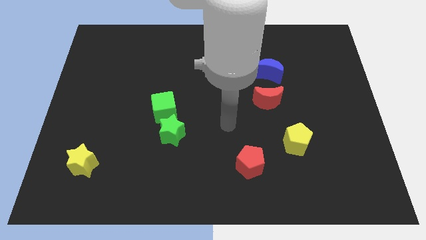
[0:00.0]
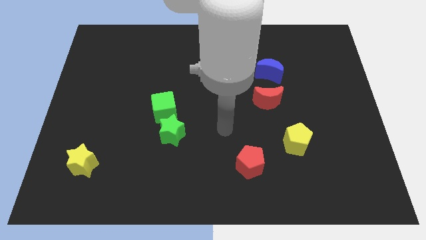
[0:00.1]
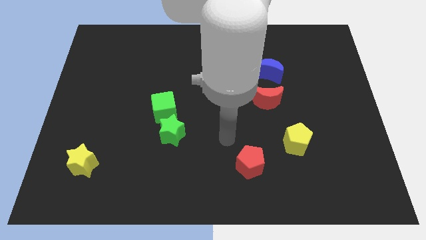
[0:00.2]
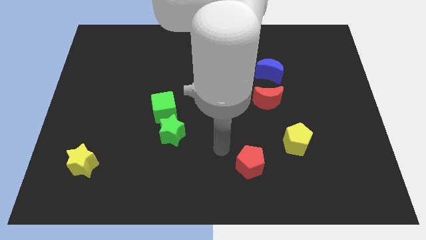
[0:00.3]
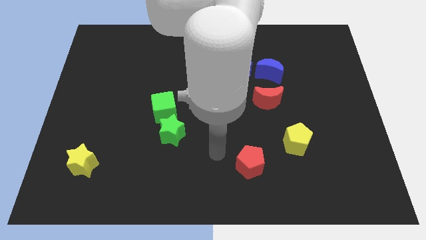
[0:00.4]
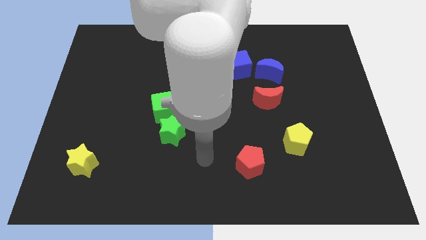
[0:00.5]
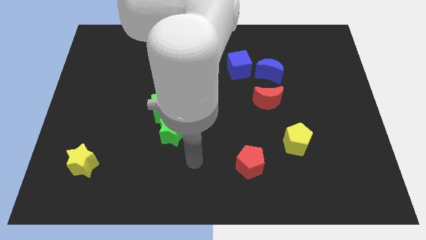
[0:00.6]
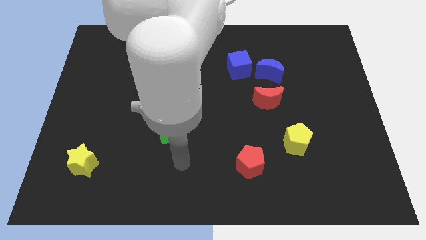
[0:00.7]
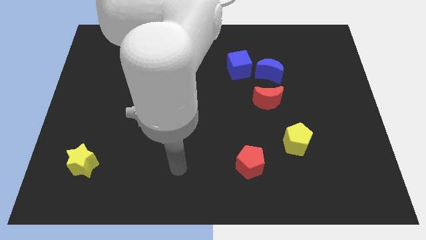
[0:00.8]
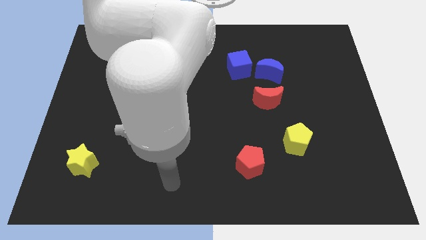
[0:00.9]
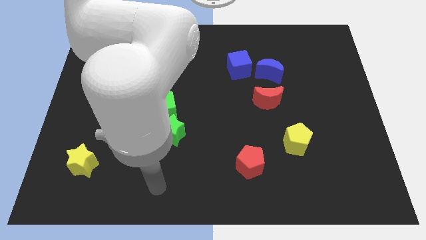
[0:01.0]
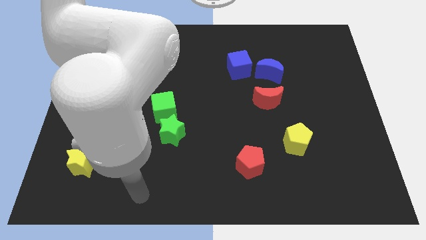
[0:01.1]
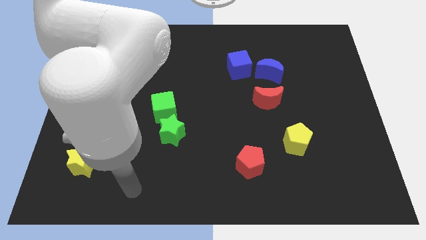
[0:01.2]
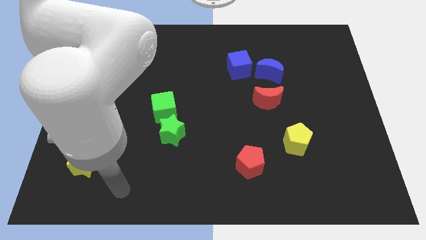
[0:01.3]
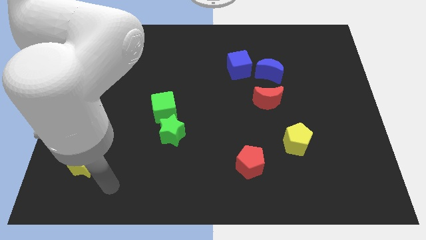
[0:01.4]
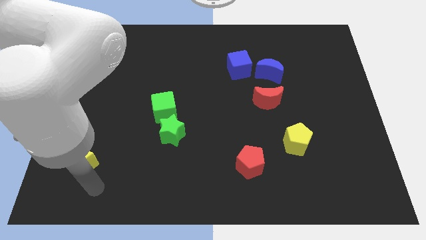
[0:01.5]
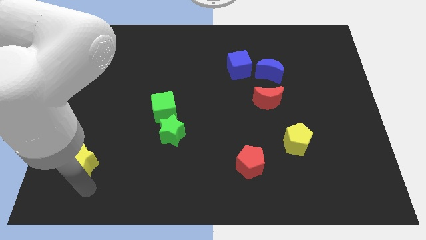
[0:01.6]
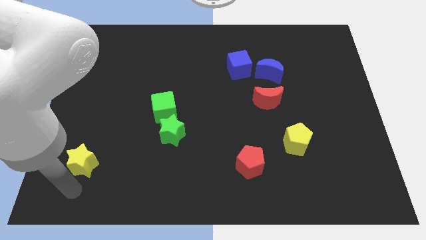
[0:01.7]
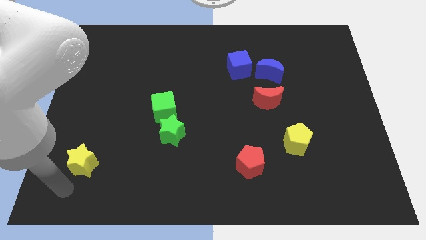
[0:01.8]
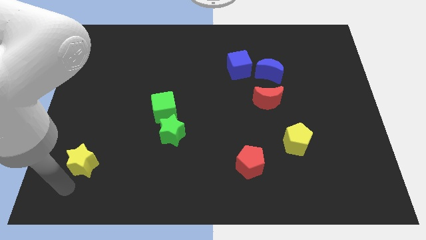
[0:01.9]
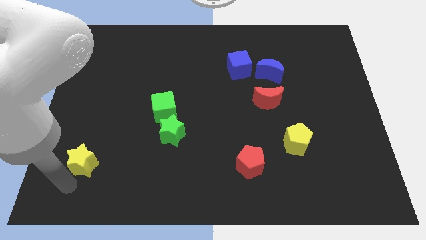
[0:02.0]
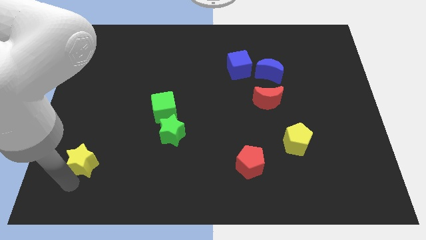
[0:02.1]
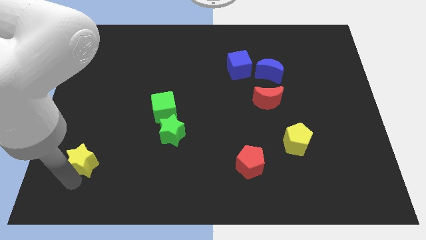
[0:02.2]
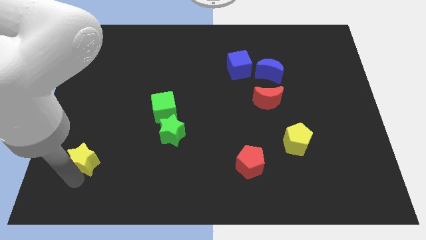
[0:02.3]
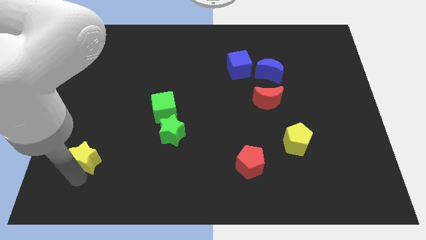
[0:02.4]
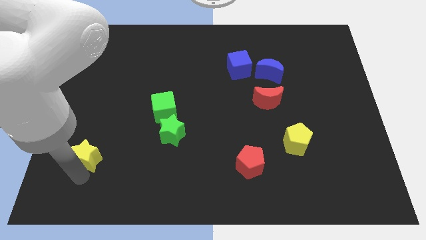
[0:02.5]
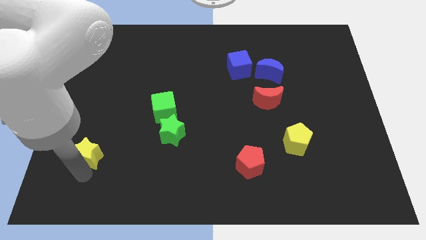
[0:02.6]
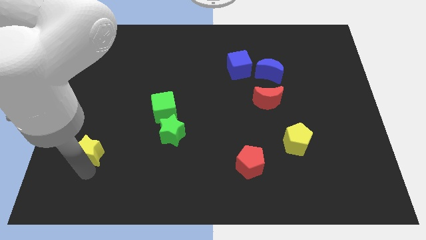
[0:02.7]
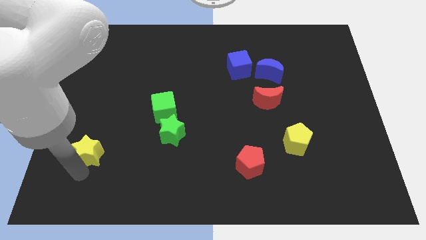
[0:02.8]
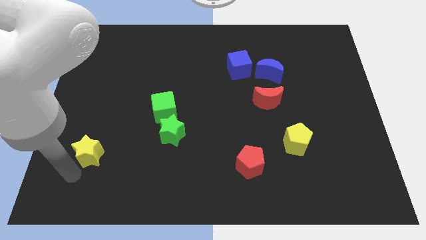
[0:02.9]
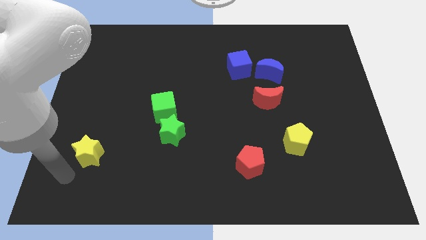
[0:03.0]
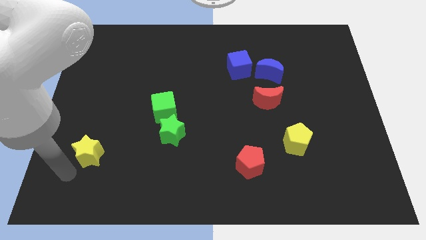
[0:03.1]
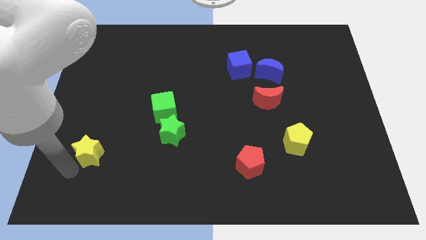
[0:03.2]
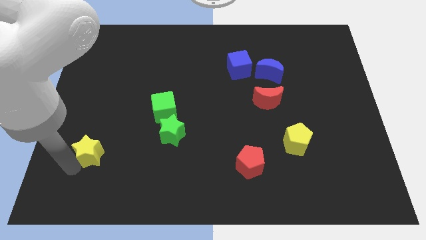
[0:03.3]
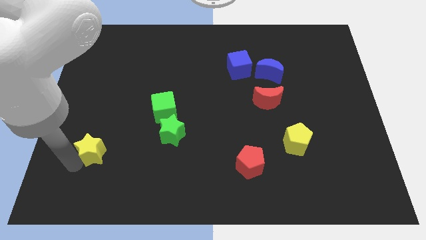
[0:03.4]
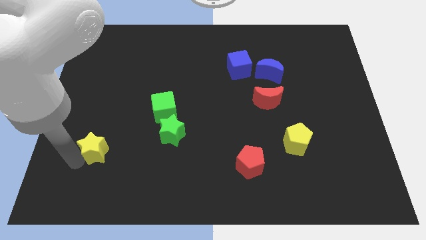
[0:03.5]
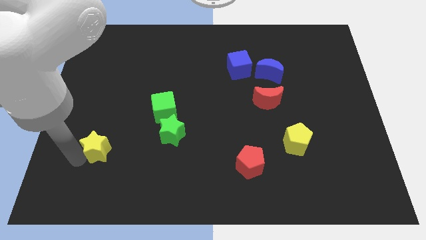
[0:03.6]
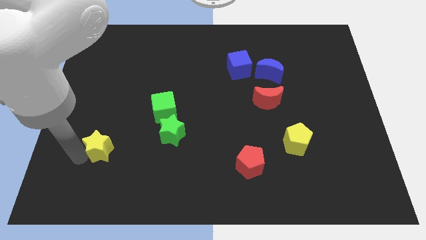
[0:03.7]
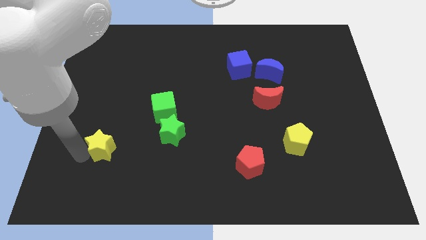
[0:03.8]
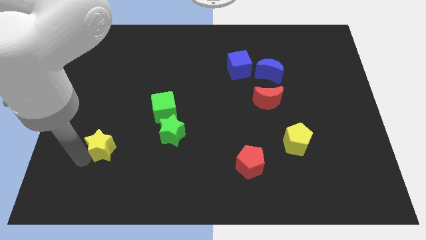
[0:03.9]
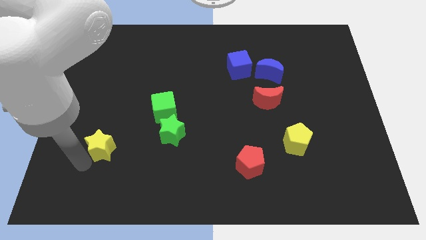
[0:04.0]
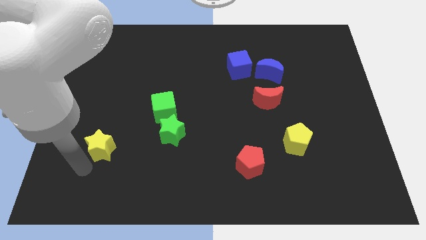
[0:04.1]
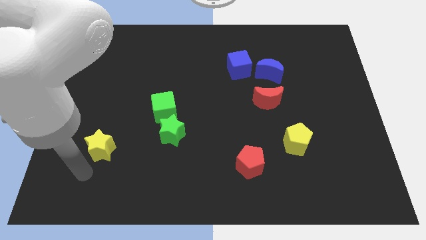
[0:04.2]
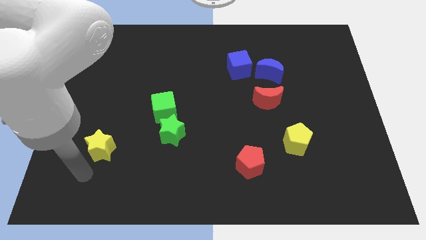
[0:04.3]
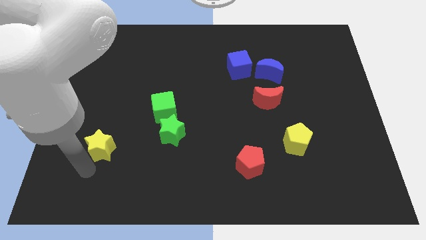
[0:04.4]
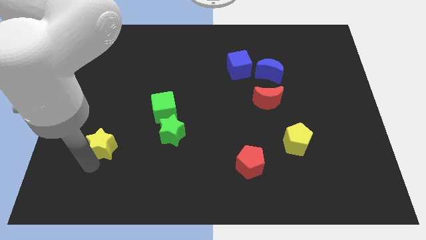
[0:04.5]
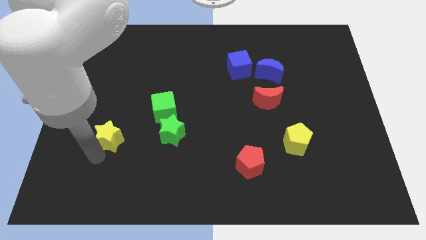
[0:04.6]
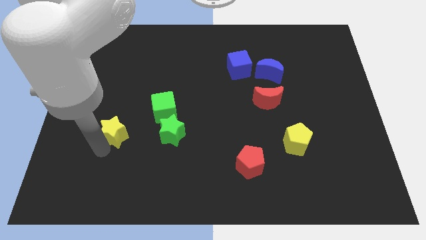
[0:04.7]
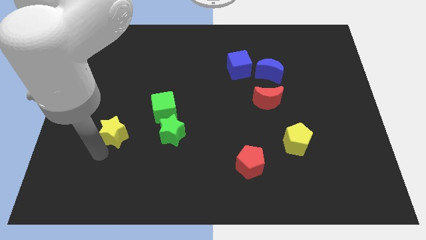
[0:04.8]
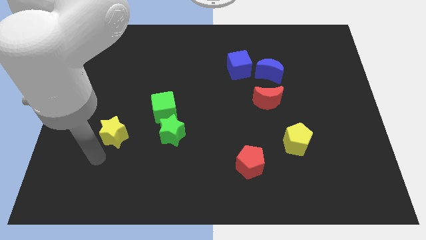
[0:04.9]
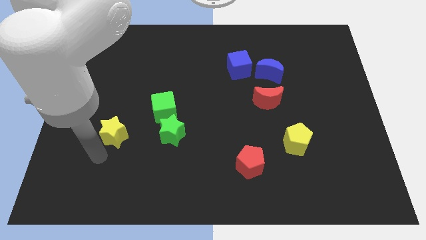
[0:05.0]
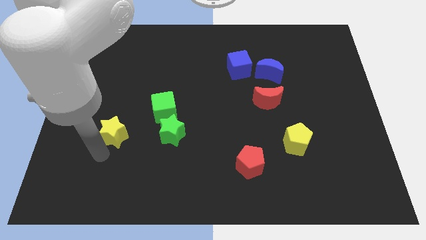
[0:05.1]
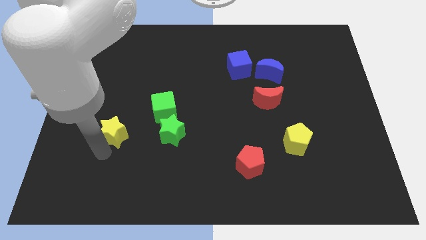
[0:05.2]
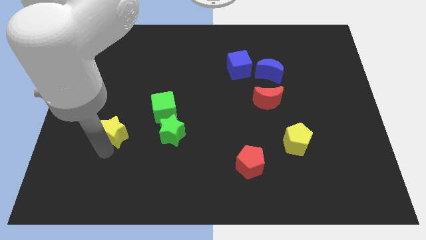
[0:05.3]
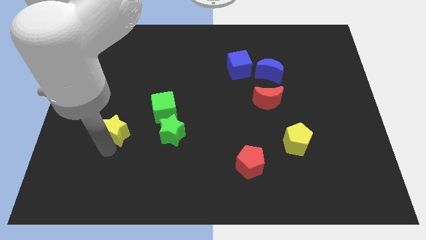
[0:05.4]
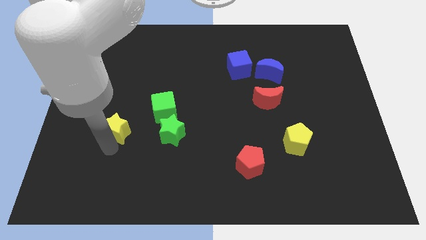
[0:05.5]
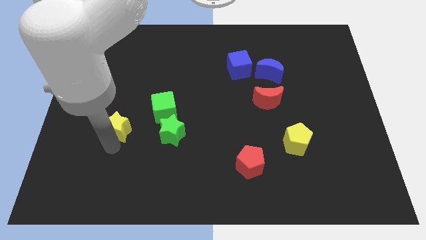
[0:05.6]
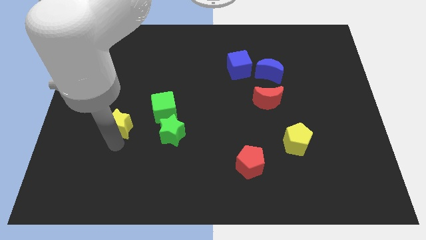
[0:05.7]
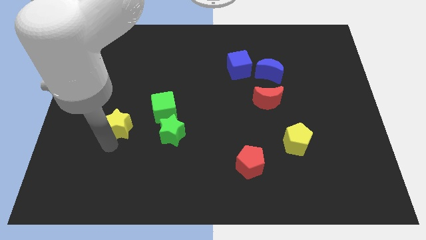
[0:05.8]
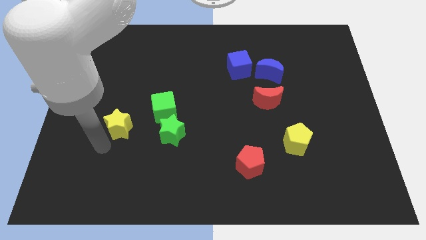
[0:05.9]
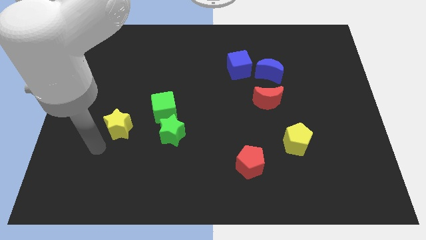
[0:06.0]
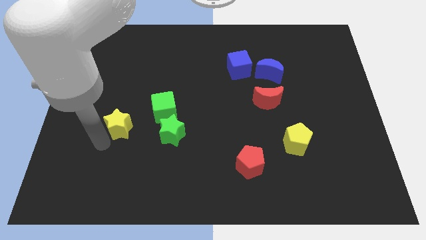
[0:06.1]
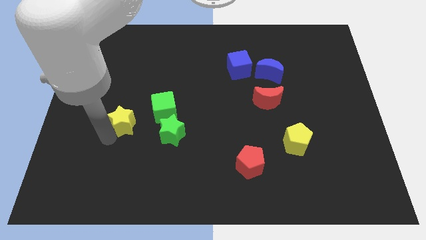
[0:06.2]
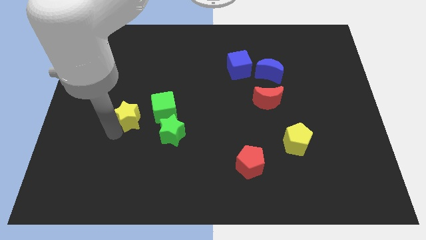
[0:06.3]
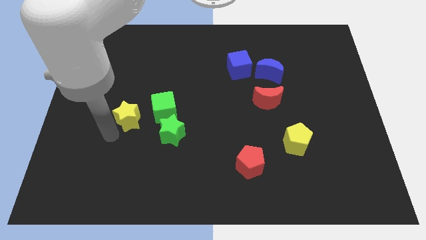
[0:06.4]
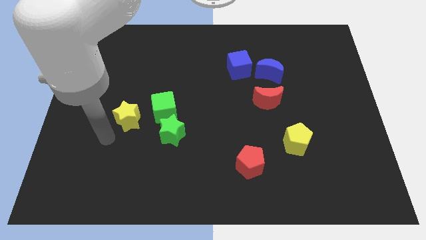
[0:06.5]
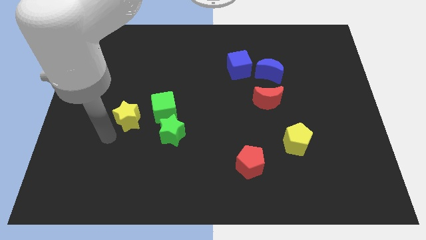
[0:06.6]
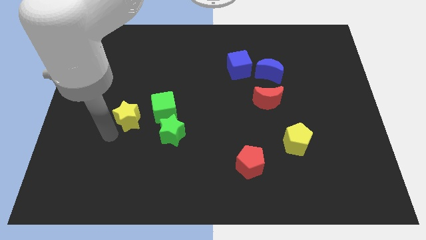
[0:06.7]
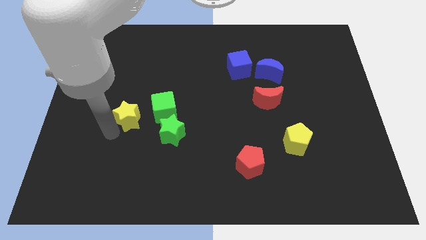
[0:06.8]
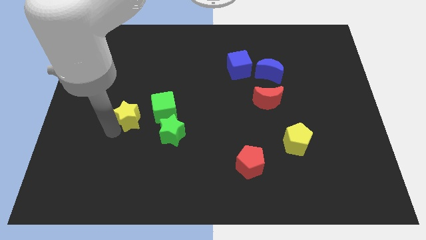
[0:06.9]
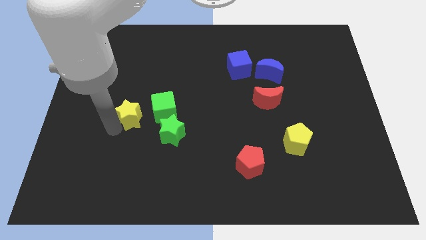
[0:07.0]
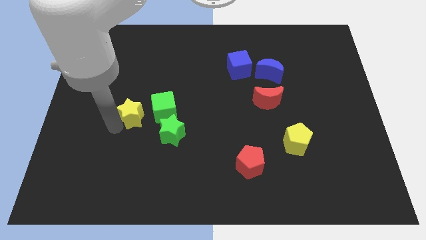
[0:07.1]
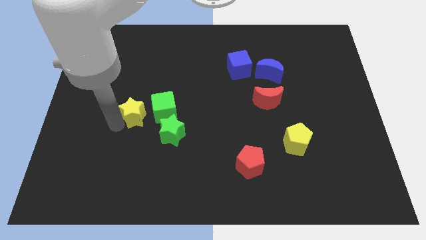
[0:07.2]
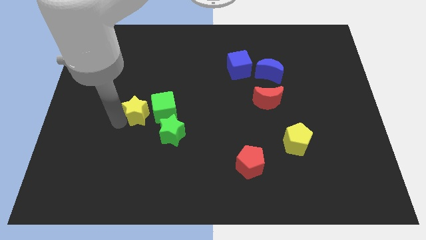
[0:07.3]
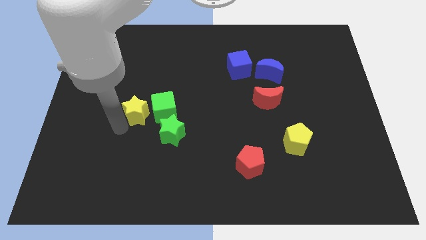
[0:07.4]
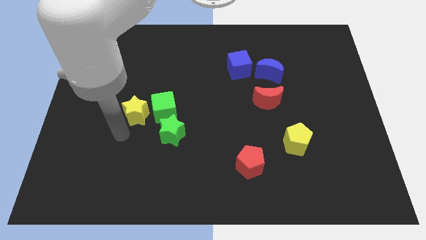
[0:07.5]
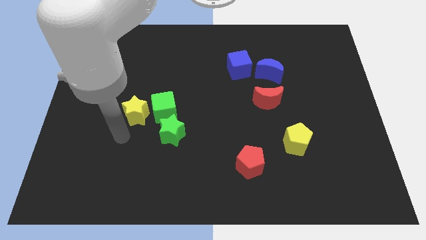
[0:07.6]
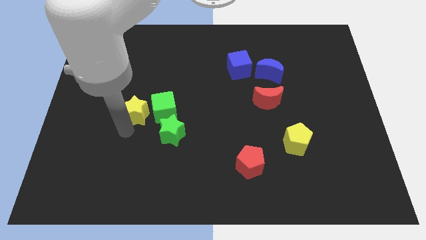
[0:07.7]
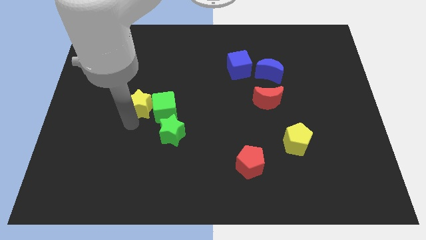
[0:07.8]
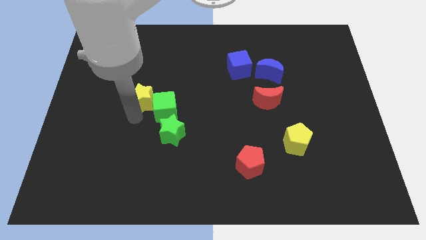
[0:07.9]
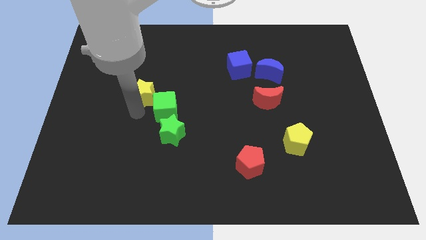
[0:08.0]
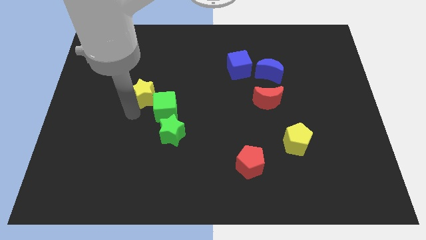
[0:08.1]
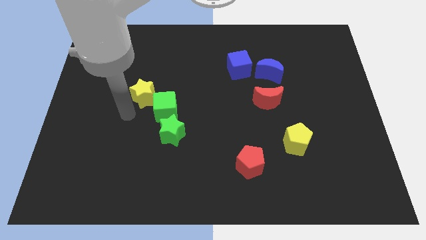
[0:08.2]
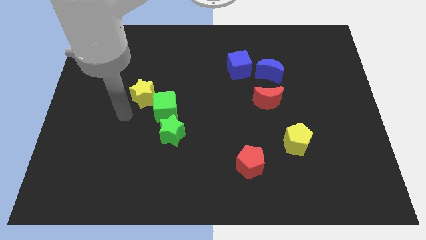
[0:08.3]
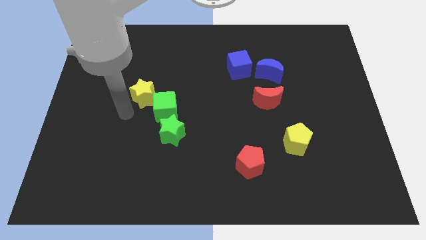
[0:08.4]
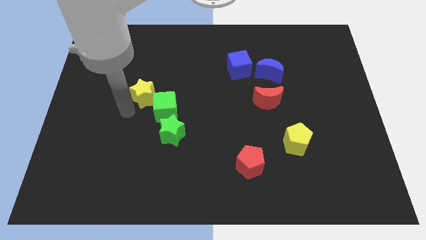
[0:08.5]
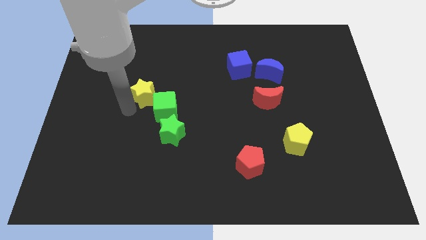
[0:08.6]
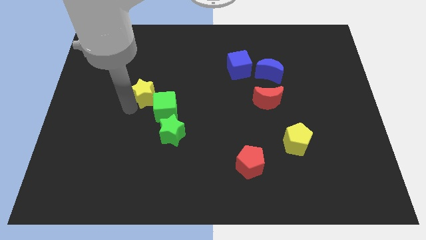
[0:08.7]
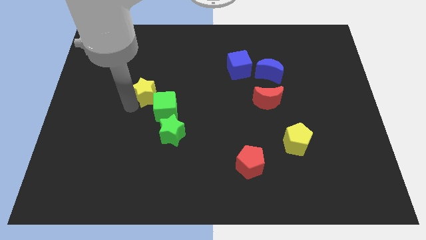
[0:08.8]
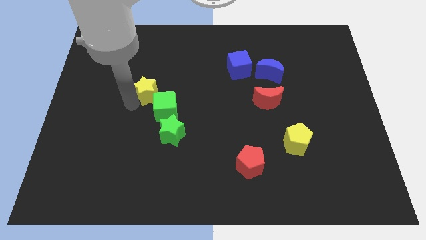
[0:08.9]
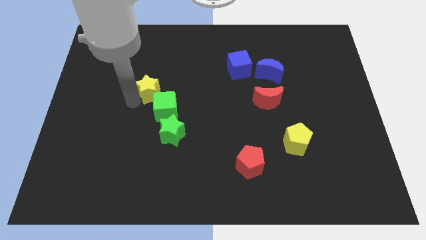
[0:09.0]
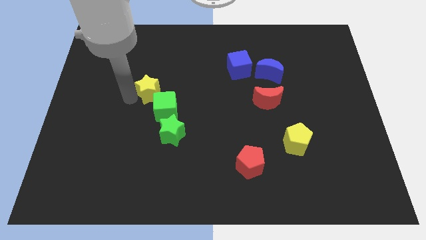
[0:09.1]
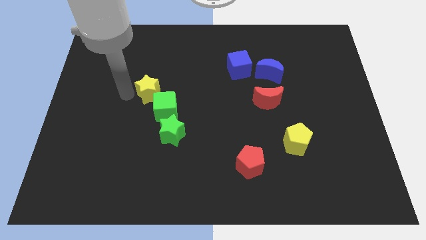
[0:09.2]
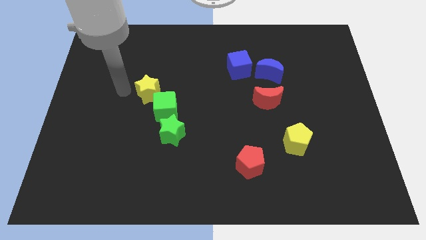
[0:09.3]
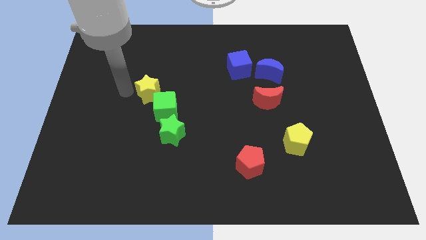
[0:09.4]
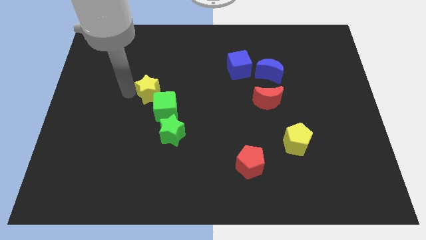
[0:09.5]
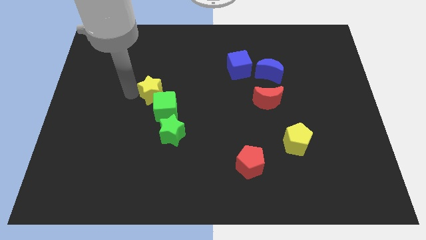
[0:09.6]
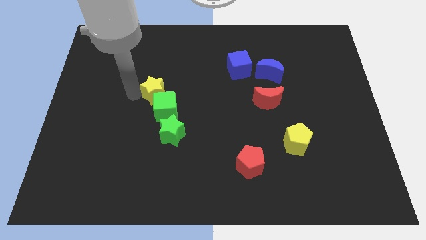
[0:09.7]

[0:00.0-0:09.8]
slide the yellow star to the top of the green star
